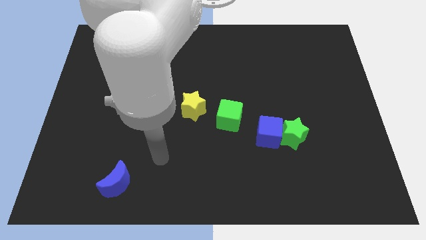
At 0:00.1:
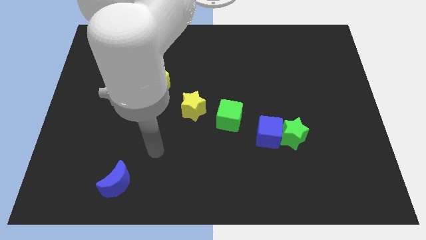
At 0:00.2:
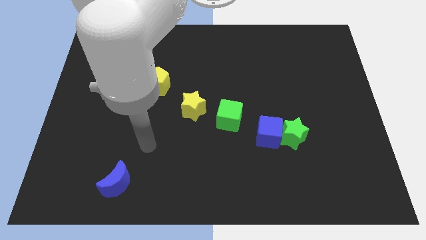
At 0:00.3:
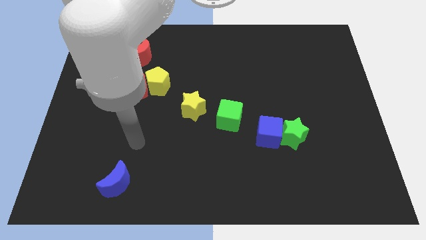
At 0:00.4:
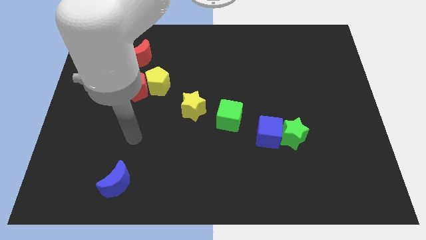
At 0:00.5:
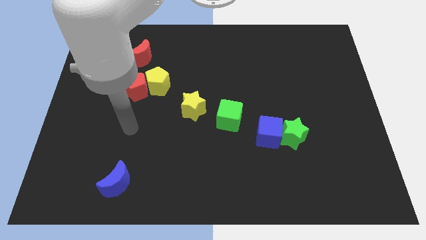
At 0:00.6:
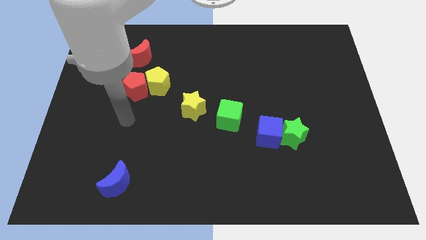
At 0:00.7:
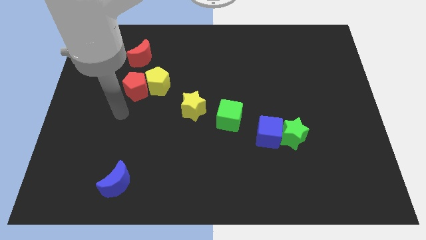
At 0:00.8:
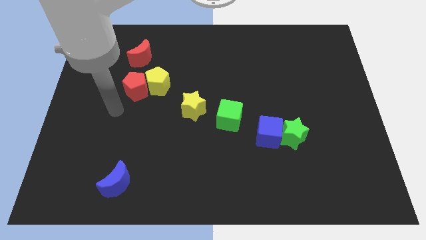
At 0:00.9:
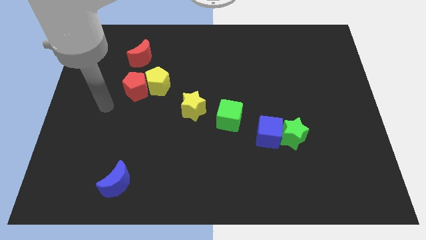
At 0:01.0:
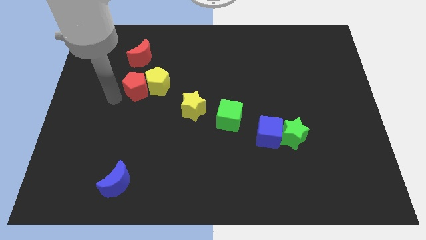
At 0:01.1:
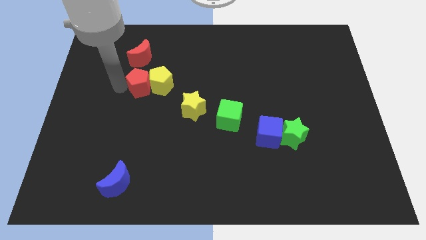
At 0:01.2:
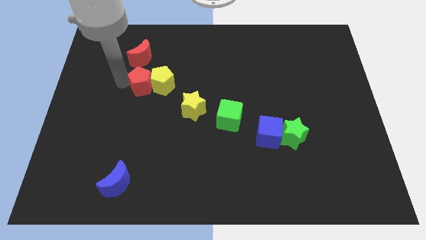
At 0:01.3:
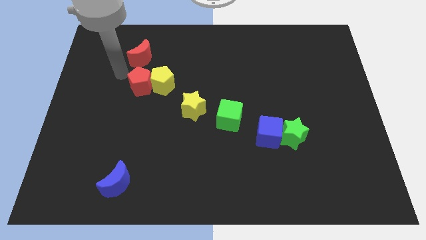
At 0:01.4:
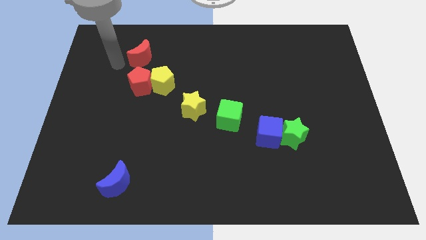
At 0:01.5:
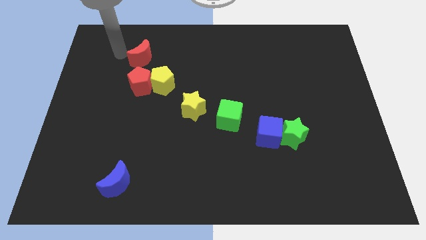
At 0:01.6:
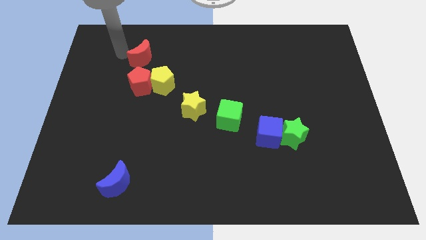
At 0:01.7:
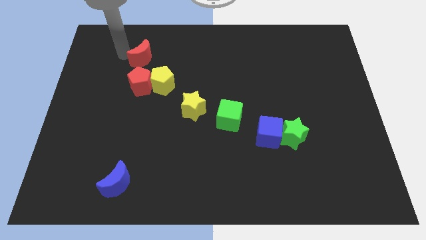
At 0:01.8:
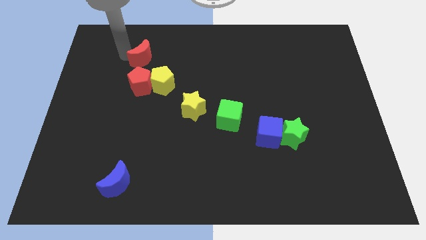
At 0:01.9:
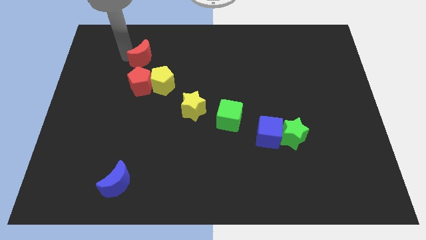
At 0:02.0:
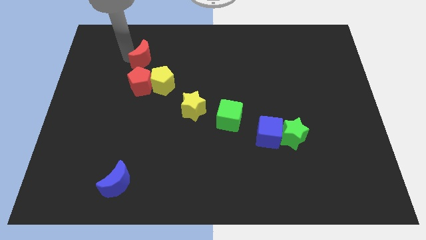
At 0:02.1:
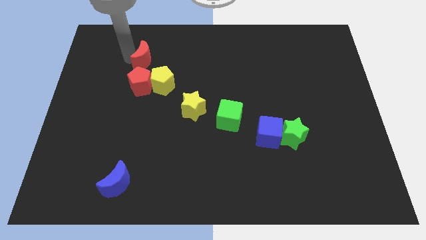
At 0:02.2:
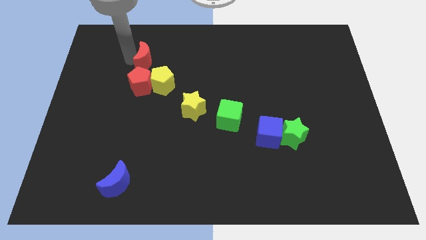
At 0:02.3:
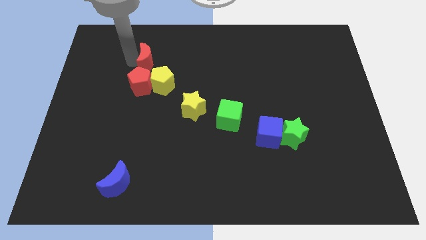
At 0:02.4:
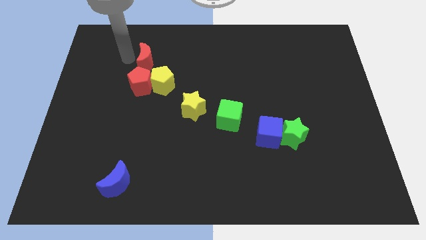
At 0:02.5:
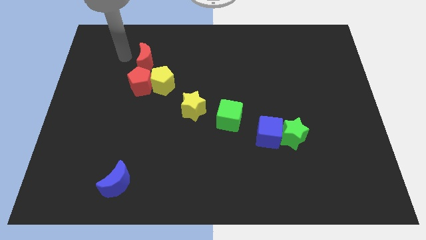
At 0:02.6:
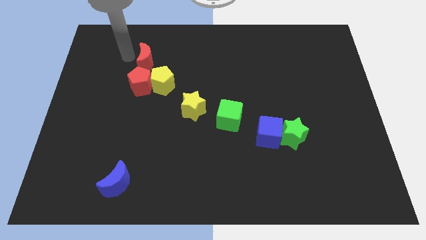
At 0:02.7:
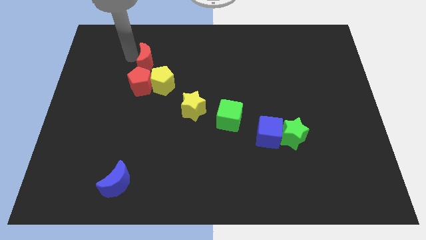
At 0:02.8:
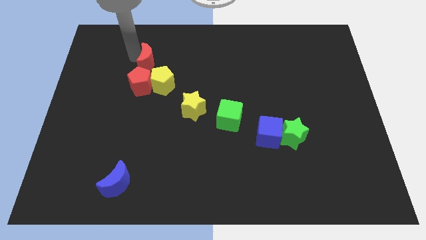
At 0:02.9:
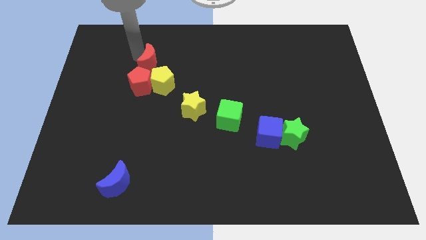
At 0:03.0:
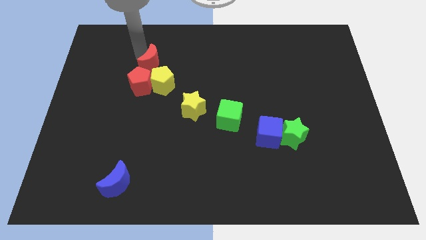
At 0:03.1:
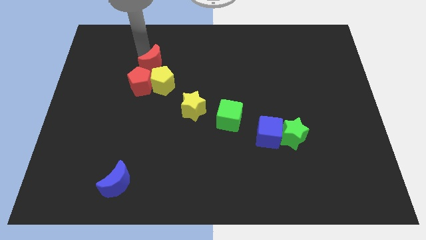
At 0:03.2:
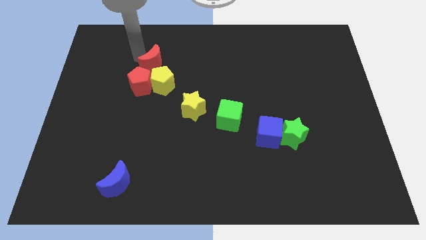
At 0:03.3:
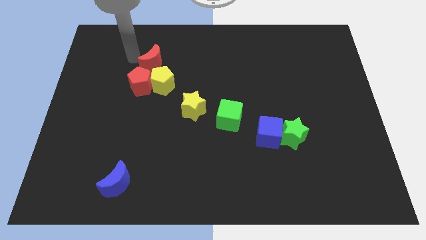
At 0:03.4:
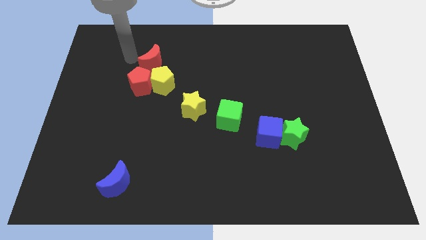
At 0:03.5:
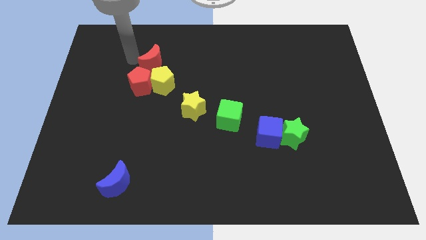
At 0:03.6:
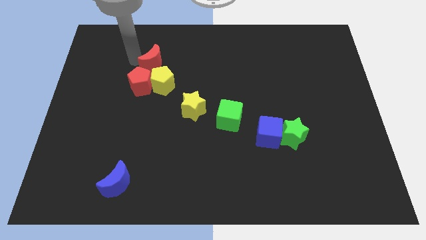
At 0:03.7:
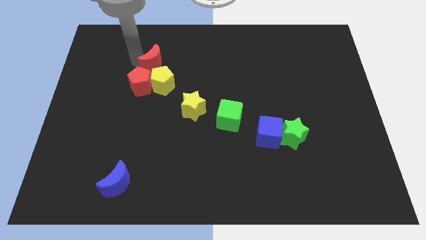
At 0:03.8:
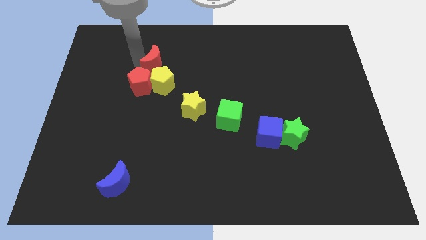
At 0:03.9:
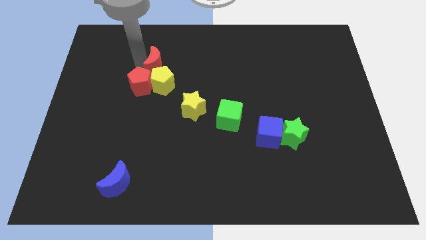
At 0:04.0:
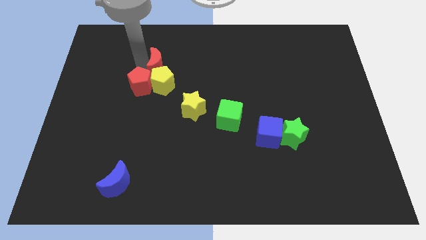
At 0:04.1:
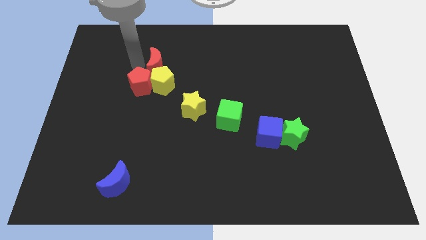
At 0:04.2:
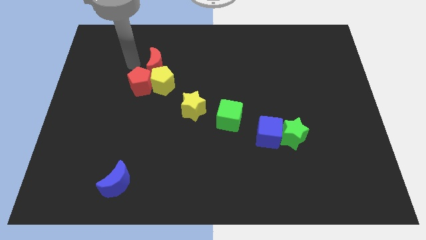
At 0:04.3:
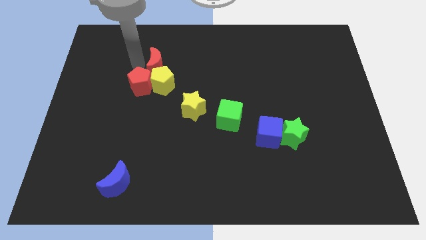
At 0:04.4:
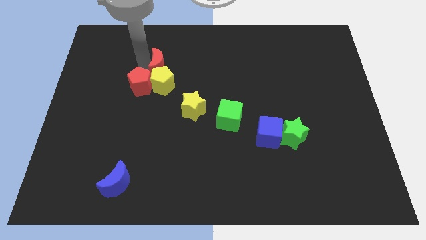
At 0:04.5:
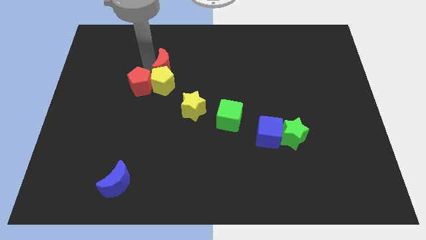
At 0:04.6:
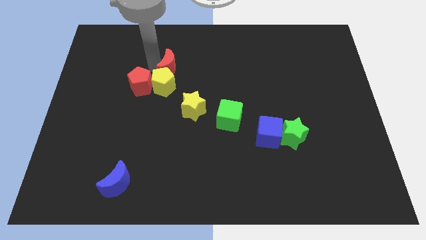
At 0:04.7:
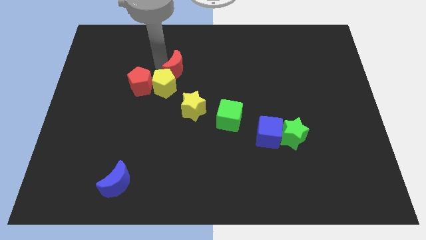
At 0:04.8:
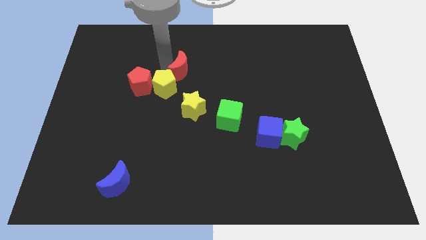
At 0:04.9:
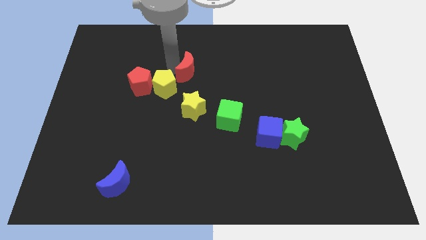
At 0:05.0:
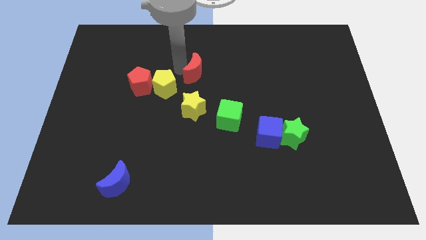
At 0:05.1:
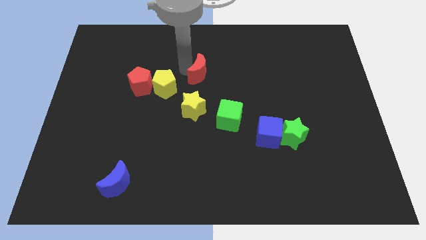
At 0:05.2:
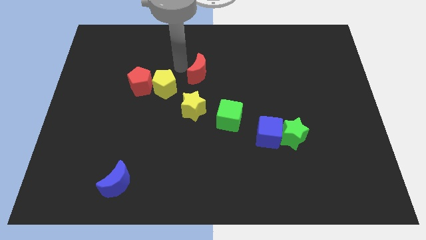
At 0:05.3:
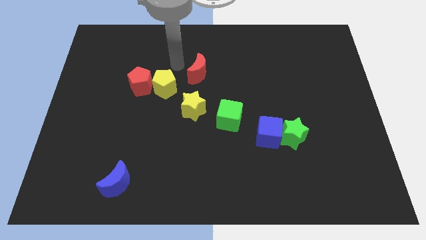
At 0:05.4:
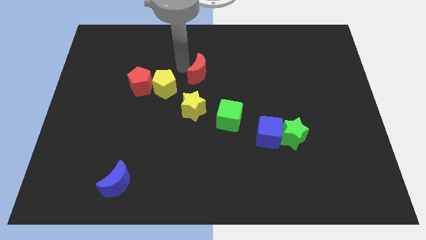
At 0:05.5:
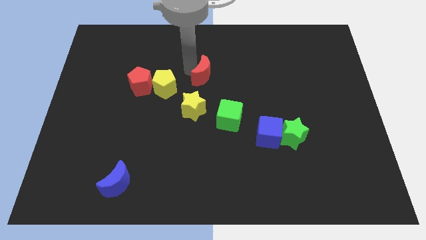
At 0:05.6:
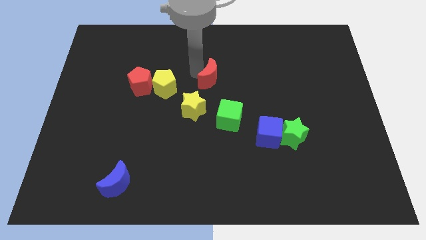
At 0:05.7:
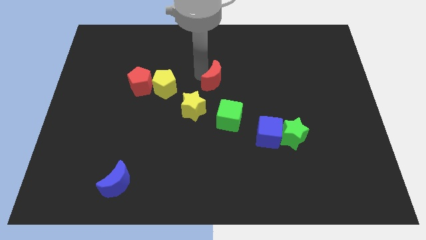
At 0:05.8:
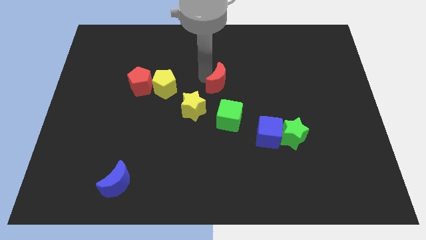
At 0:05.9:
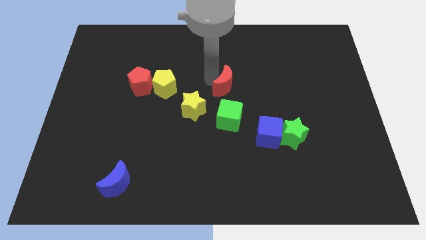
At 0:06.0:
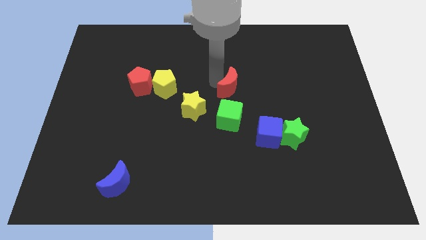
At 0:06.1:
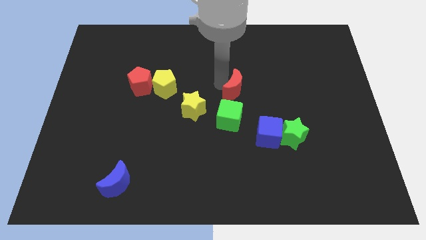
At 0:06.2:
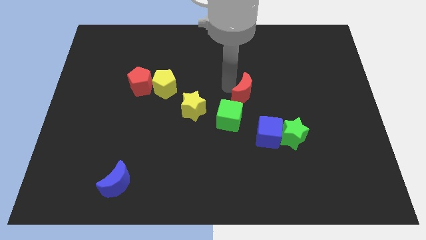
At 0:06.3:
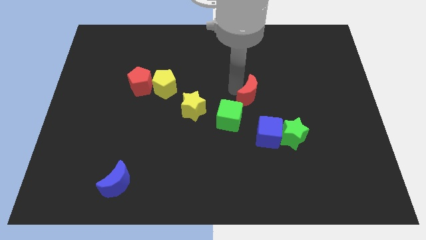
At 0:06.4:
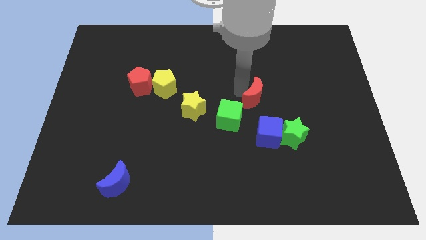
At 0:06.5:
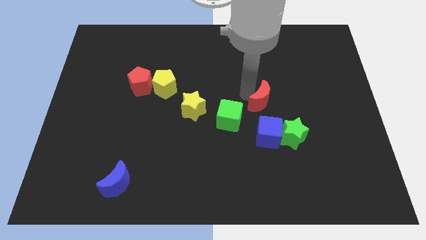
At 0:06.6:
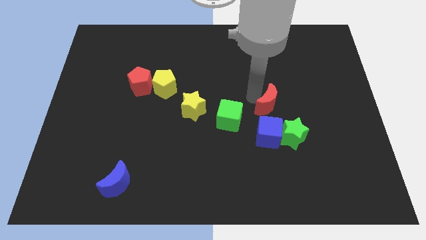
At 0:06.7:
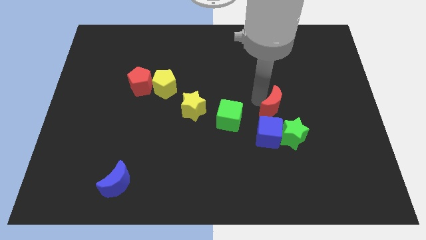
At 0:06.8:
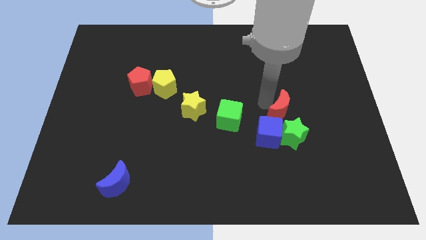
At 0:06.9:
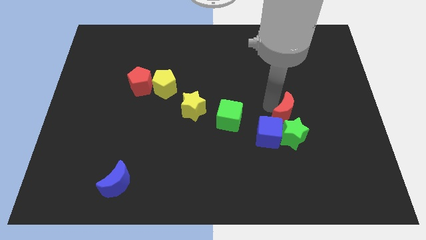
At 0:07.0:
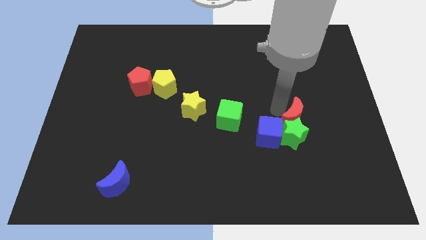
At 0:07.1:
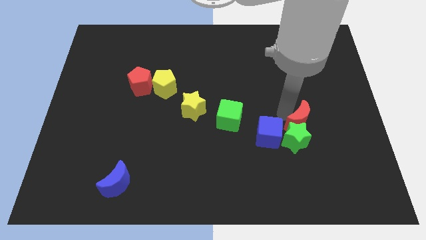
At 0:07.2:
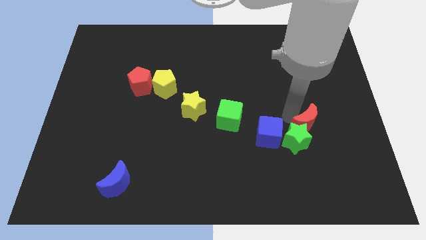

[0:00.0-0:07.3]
slide the red moon to the right of the green star

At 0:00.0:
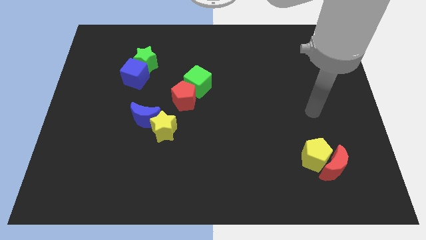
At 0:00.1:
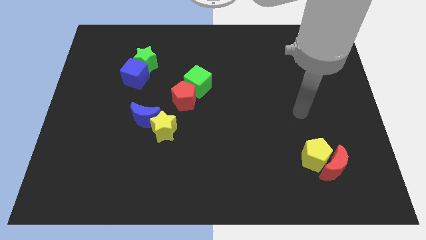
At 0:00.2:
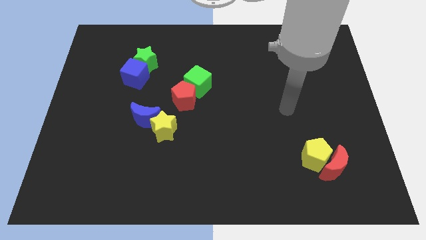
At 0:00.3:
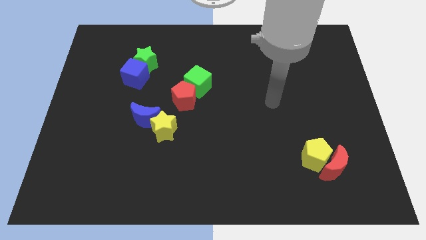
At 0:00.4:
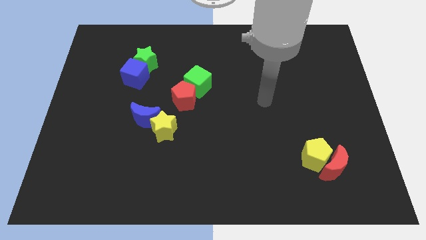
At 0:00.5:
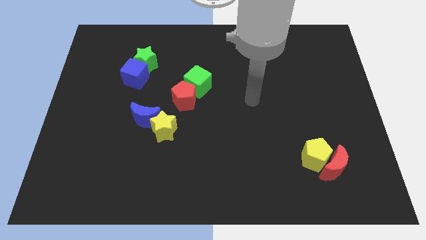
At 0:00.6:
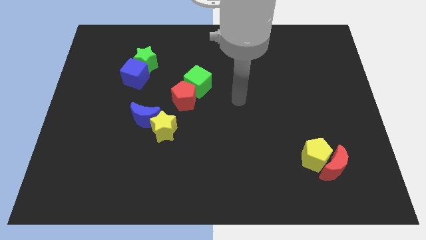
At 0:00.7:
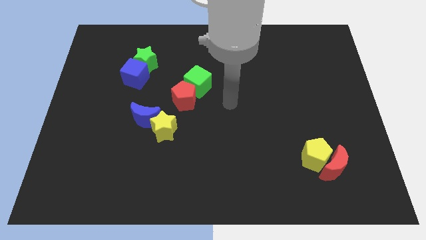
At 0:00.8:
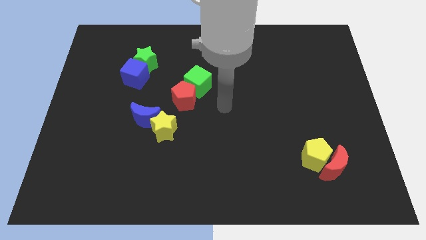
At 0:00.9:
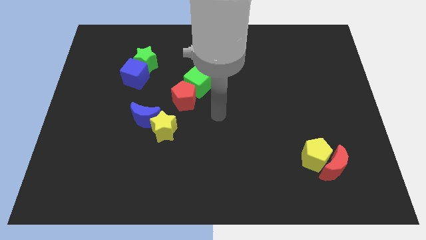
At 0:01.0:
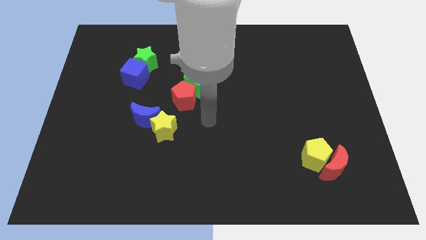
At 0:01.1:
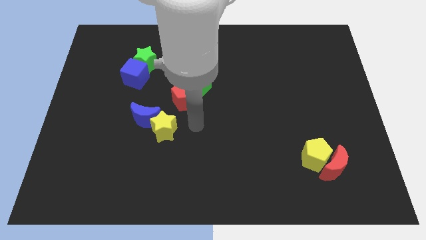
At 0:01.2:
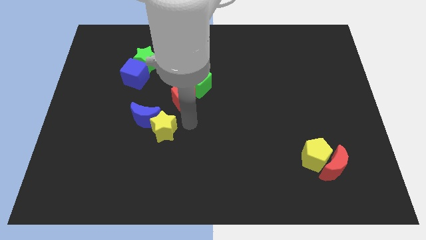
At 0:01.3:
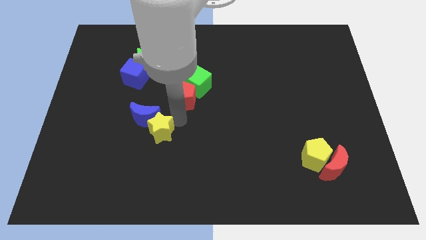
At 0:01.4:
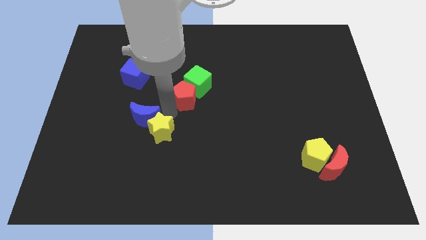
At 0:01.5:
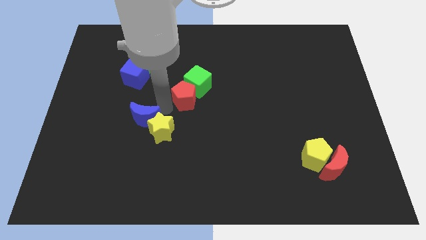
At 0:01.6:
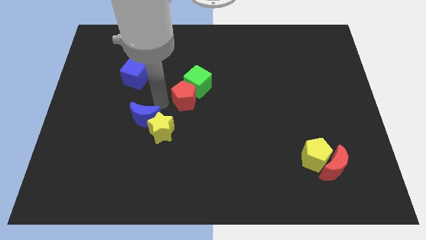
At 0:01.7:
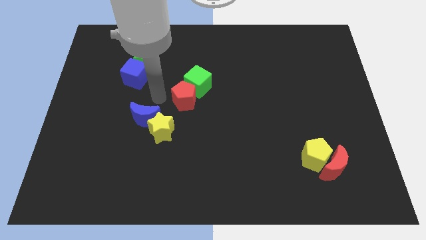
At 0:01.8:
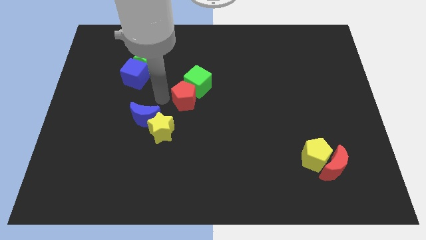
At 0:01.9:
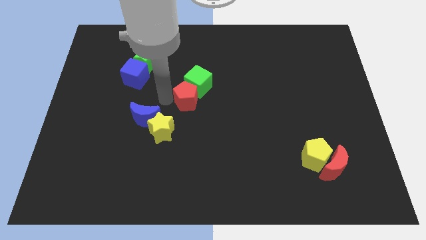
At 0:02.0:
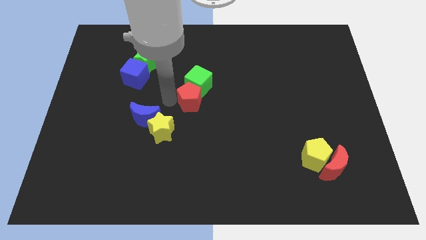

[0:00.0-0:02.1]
put the red pentagon diagonally down and to the right of the green cube
